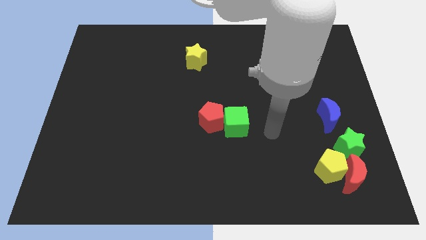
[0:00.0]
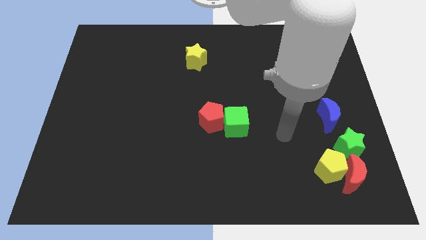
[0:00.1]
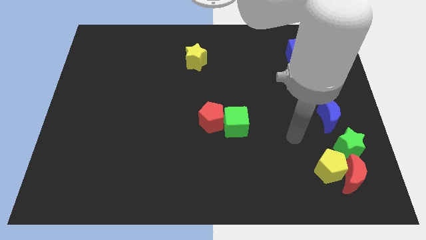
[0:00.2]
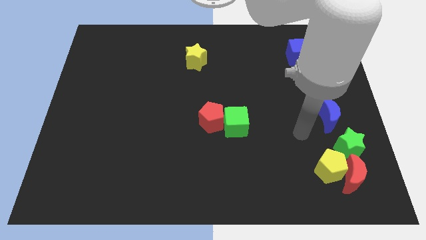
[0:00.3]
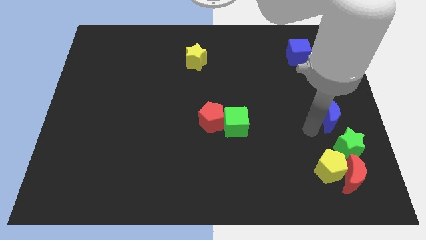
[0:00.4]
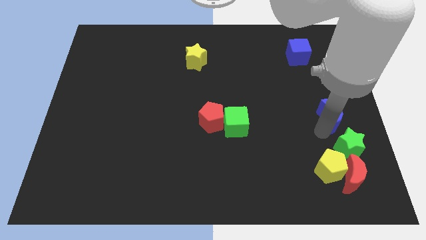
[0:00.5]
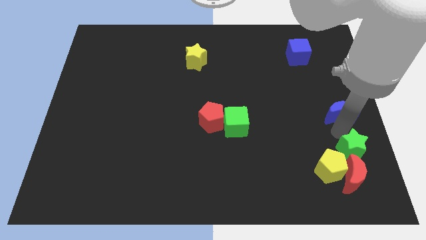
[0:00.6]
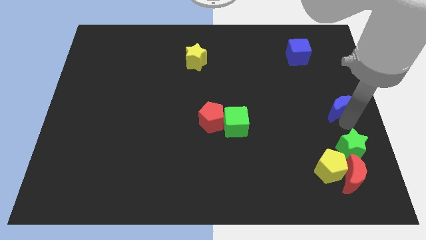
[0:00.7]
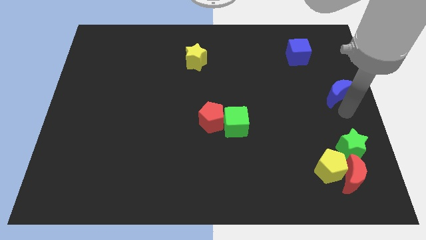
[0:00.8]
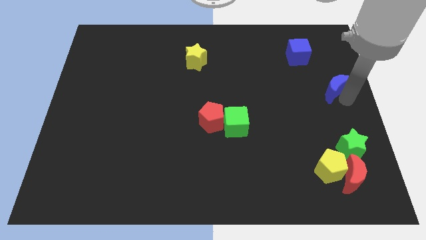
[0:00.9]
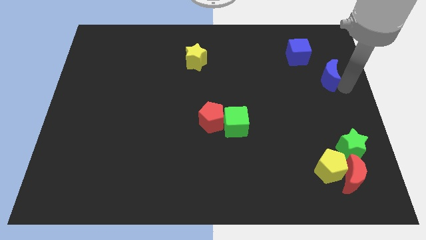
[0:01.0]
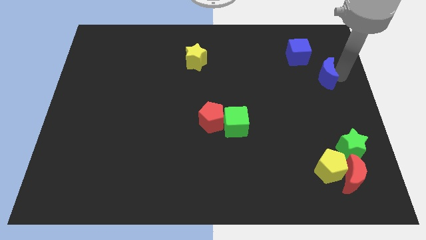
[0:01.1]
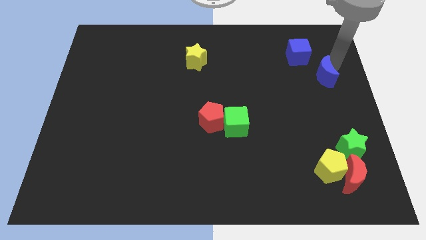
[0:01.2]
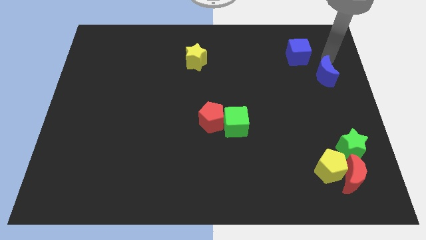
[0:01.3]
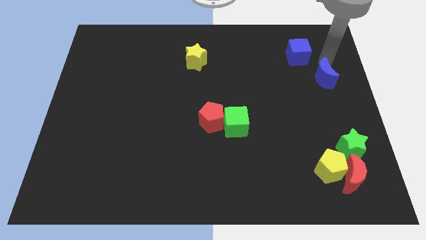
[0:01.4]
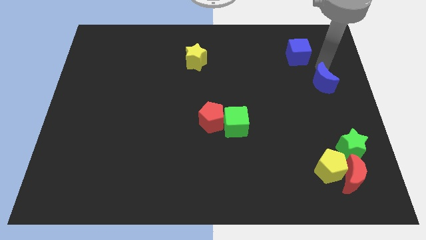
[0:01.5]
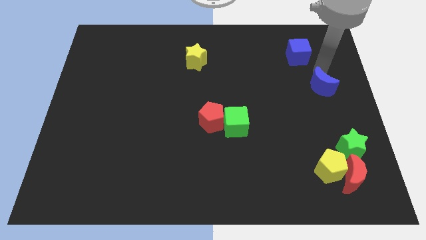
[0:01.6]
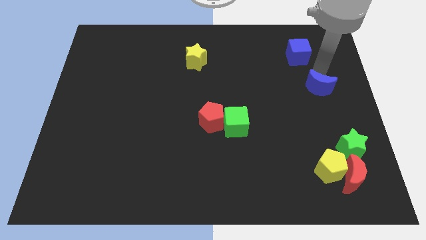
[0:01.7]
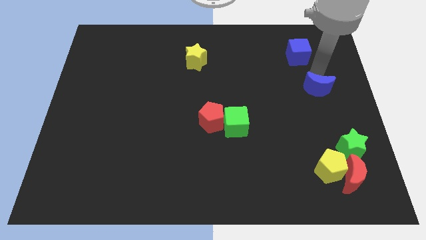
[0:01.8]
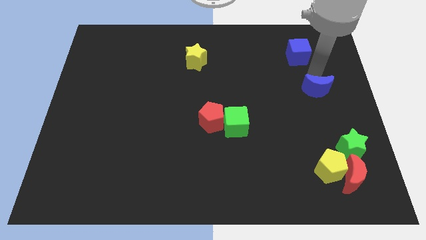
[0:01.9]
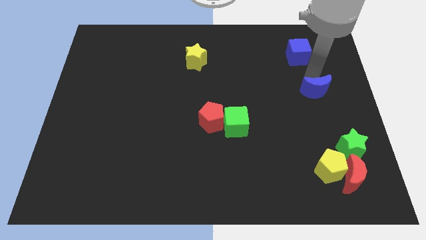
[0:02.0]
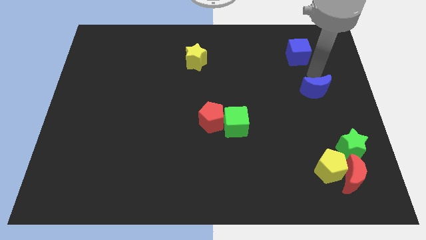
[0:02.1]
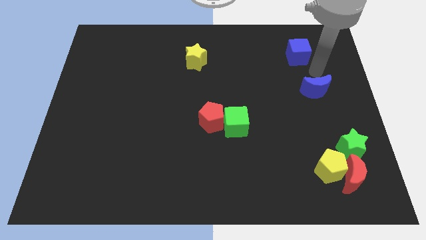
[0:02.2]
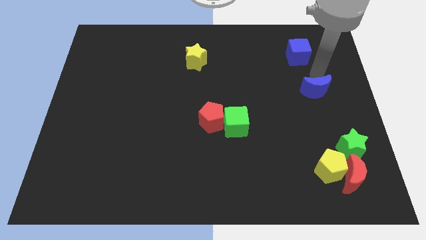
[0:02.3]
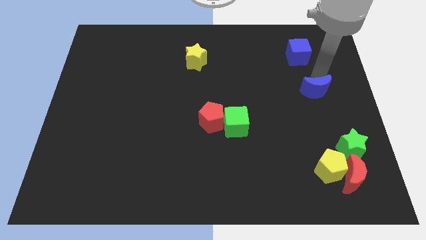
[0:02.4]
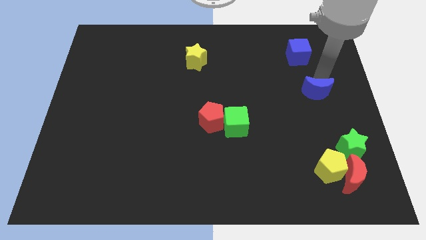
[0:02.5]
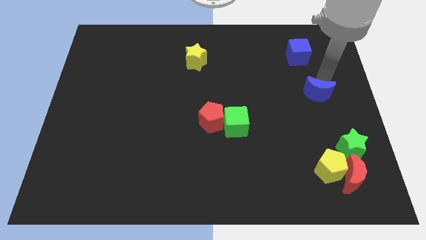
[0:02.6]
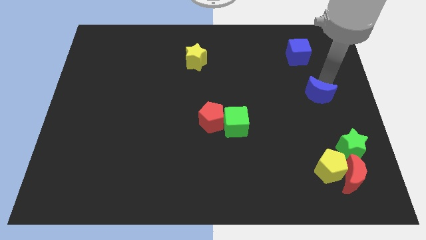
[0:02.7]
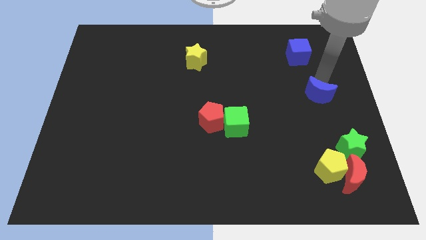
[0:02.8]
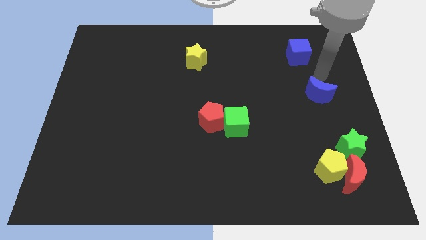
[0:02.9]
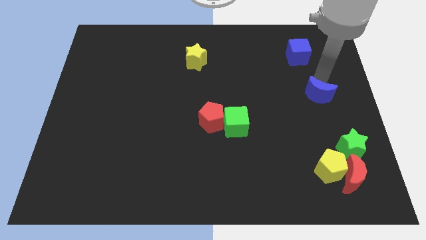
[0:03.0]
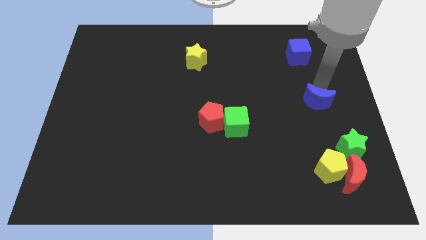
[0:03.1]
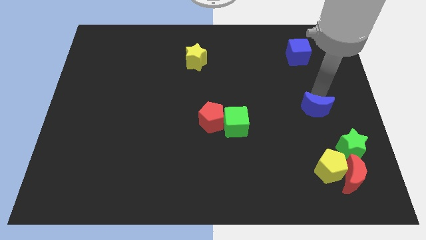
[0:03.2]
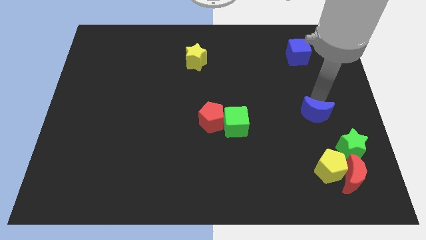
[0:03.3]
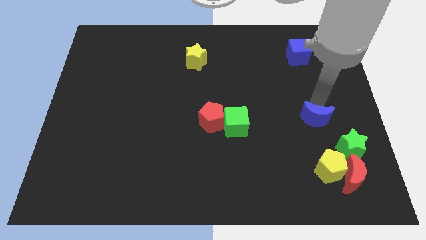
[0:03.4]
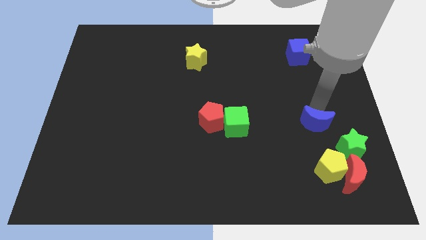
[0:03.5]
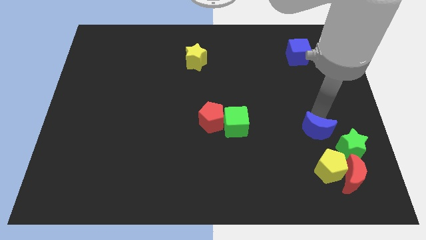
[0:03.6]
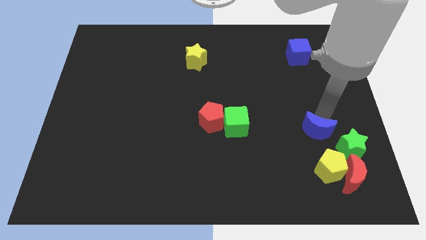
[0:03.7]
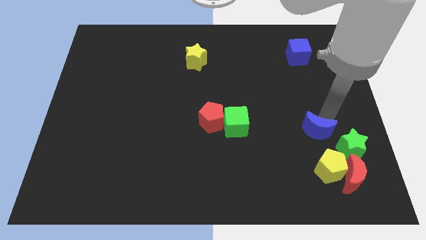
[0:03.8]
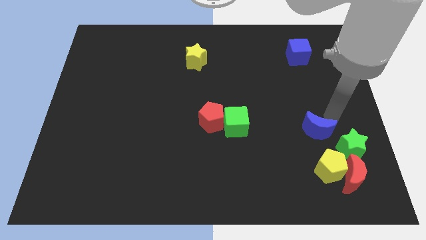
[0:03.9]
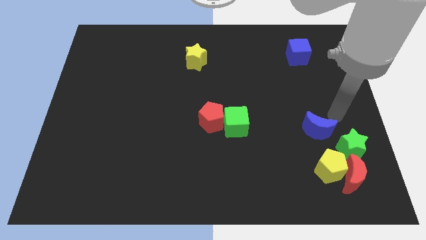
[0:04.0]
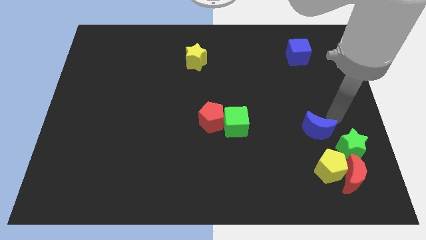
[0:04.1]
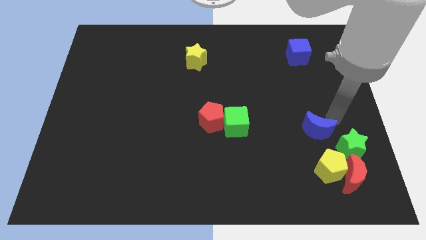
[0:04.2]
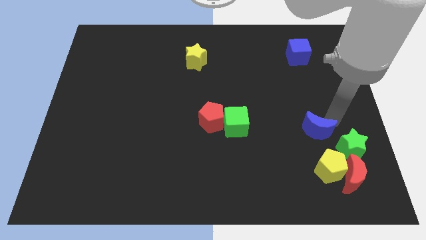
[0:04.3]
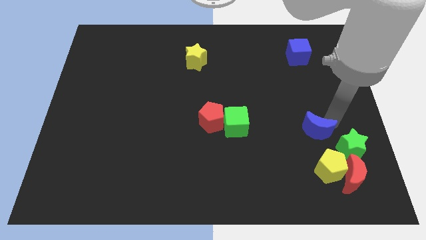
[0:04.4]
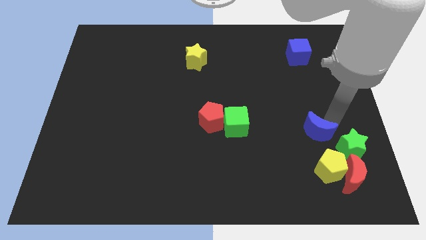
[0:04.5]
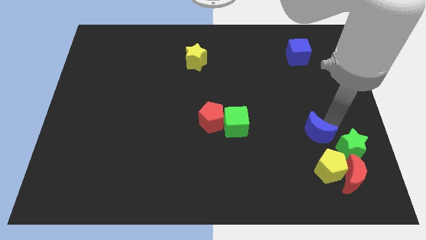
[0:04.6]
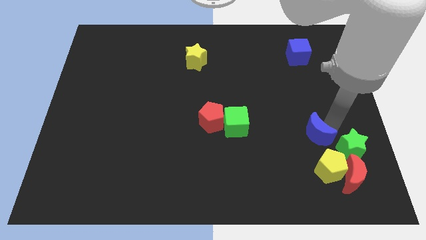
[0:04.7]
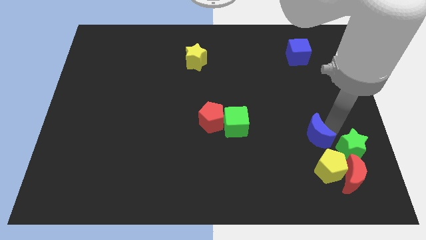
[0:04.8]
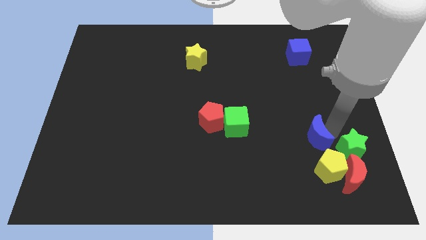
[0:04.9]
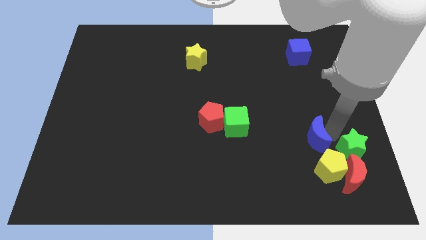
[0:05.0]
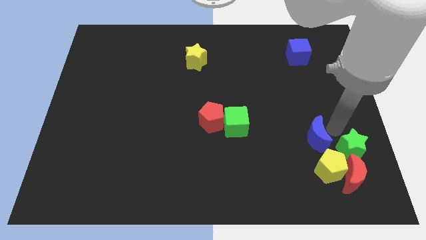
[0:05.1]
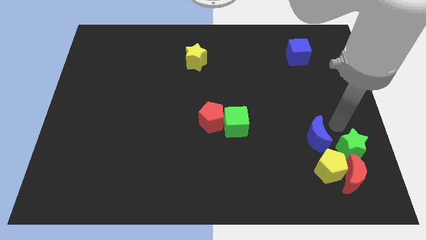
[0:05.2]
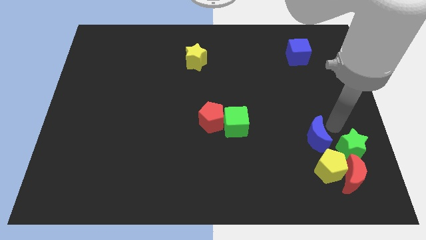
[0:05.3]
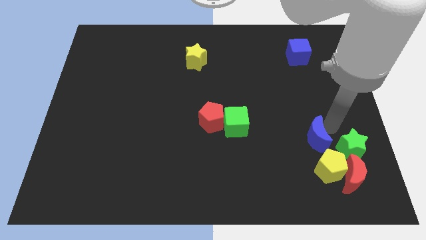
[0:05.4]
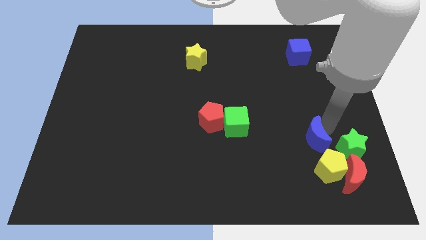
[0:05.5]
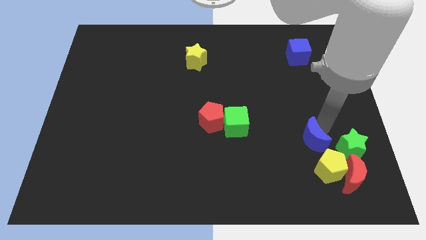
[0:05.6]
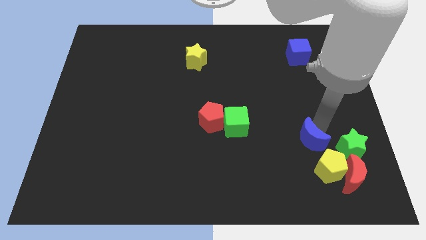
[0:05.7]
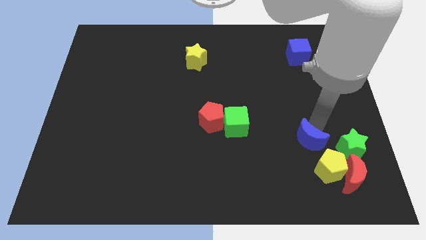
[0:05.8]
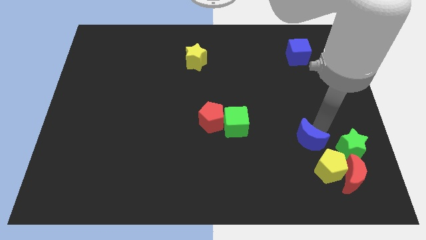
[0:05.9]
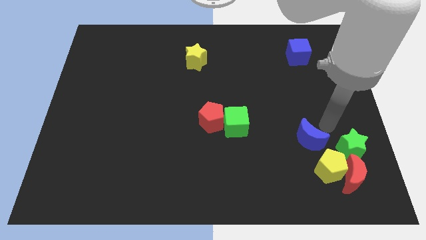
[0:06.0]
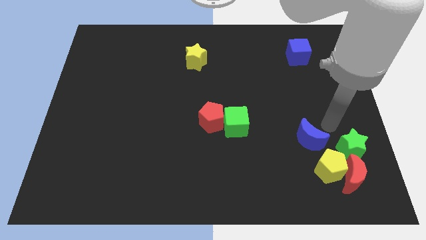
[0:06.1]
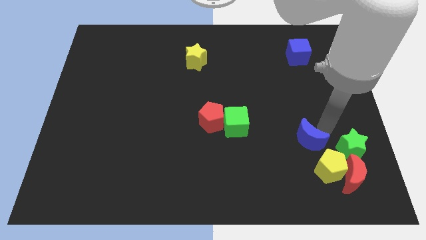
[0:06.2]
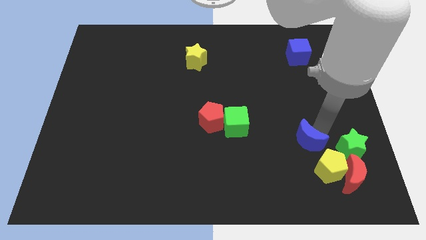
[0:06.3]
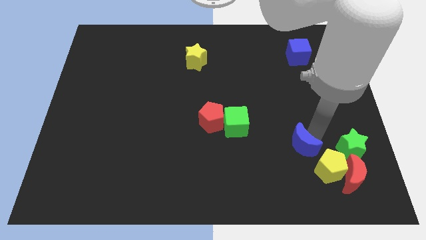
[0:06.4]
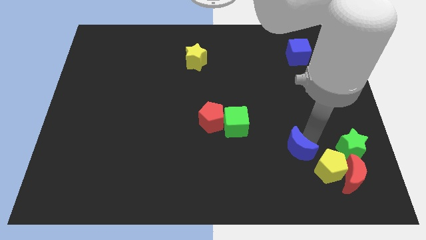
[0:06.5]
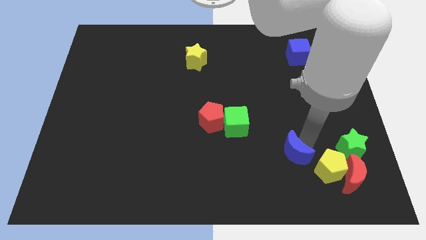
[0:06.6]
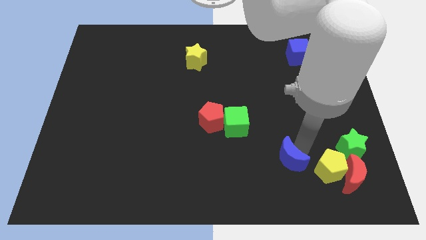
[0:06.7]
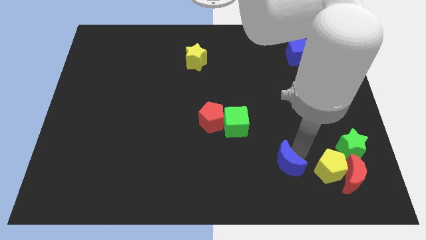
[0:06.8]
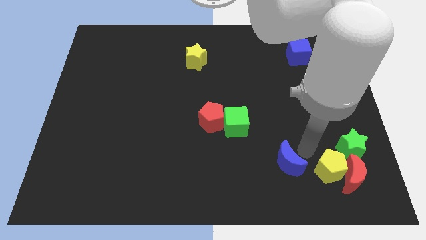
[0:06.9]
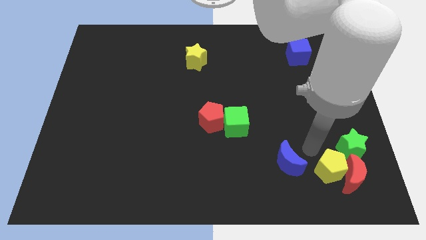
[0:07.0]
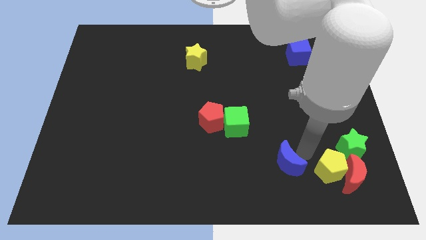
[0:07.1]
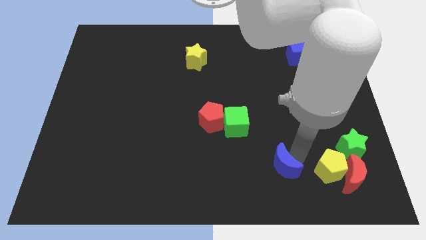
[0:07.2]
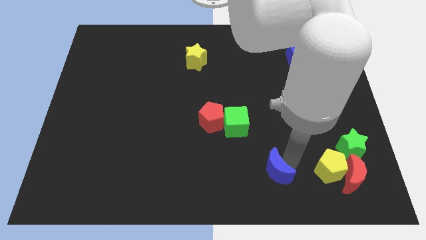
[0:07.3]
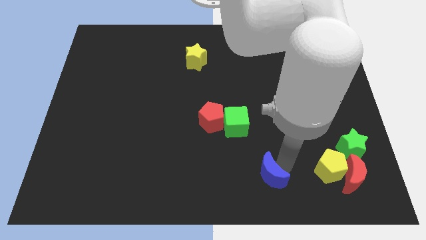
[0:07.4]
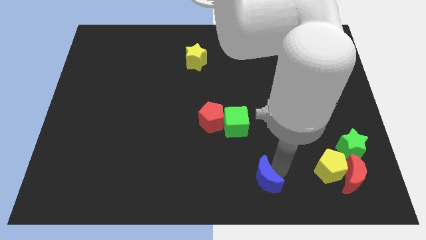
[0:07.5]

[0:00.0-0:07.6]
put the blue moon to the bottom
